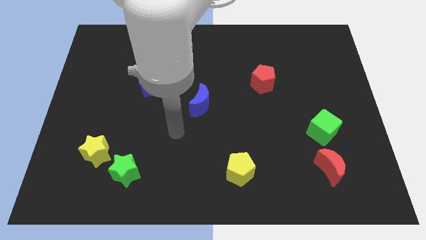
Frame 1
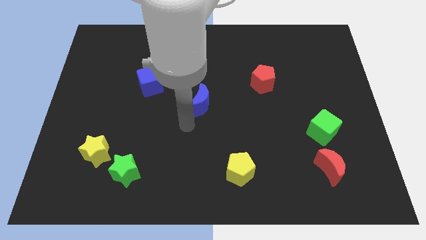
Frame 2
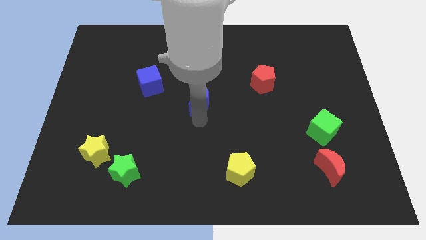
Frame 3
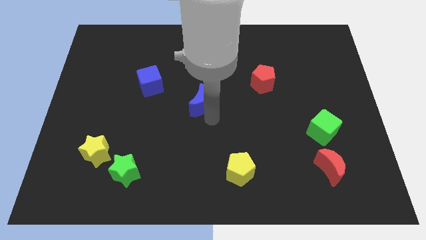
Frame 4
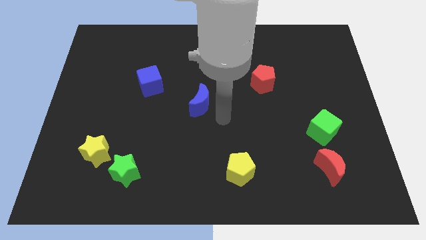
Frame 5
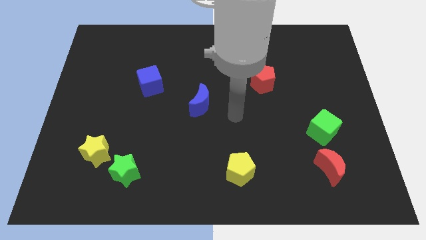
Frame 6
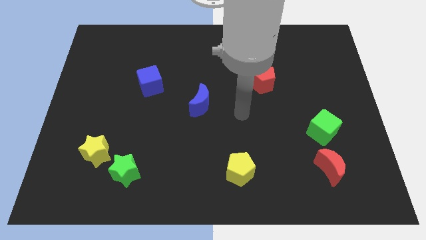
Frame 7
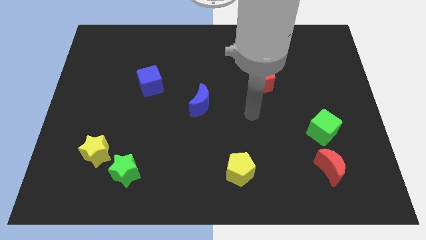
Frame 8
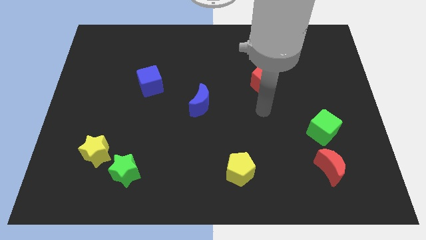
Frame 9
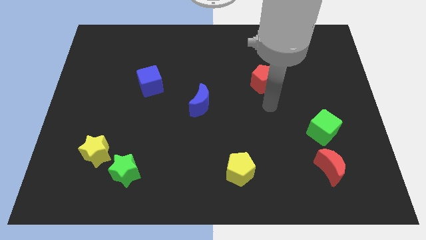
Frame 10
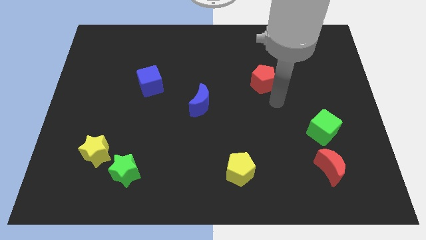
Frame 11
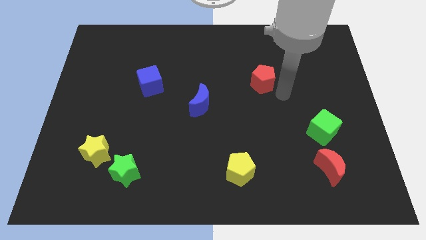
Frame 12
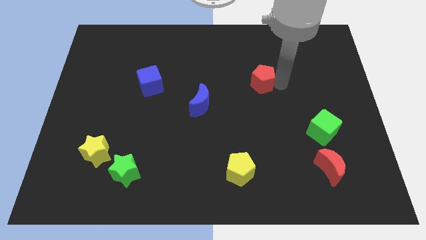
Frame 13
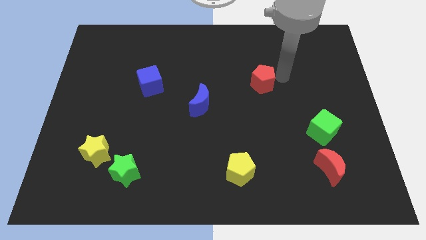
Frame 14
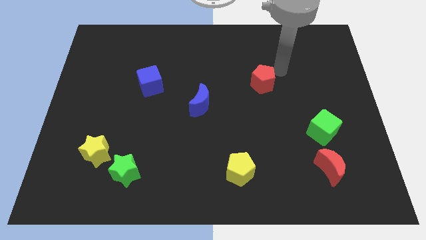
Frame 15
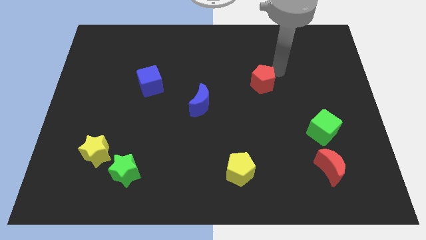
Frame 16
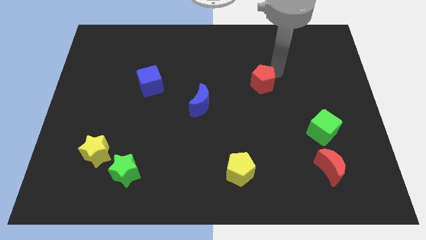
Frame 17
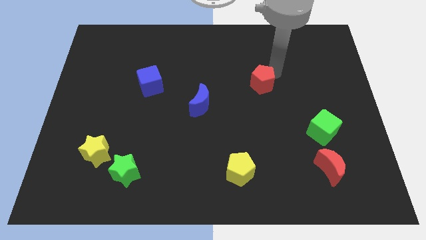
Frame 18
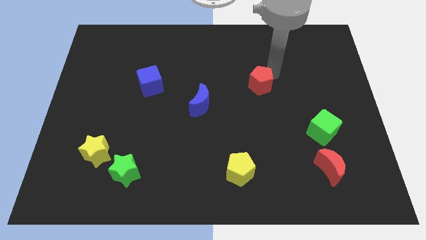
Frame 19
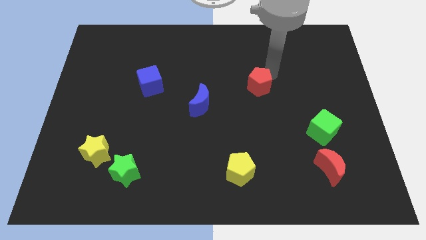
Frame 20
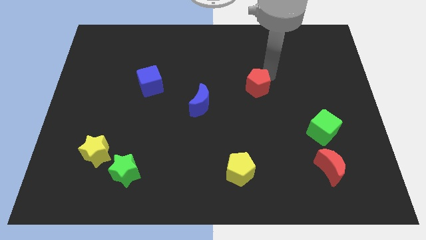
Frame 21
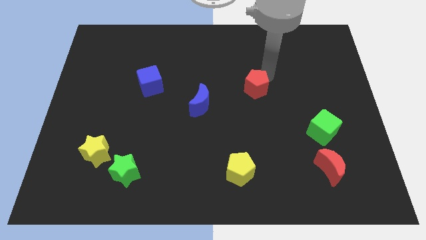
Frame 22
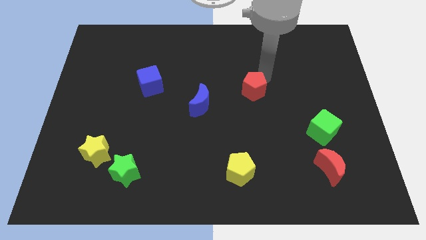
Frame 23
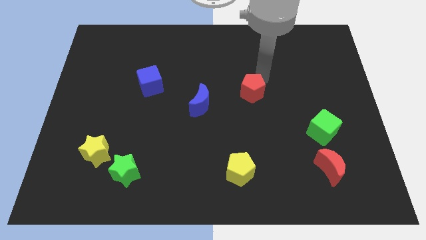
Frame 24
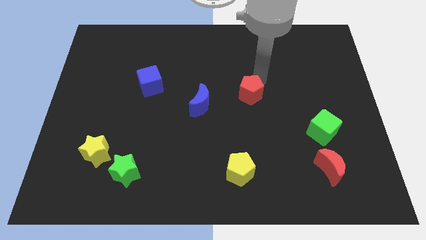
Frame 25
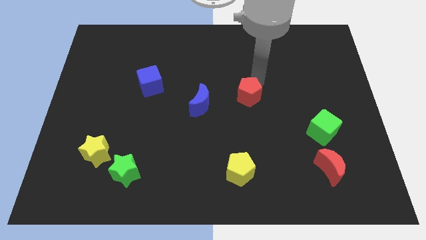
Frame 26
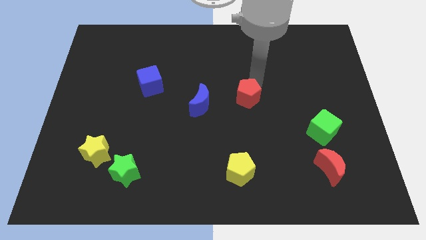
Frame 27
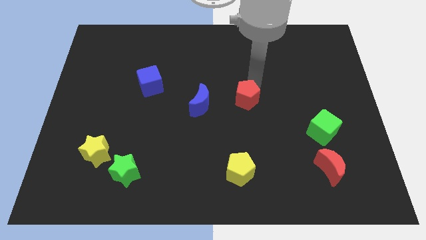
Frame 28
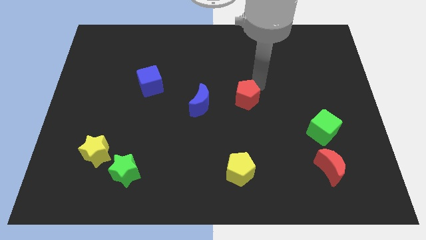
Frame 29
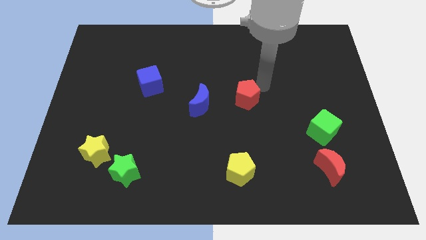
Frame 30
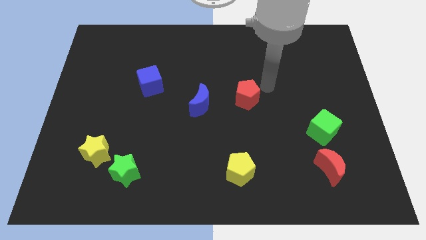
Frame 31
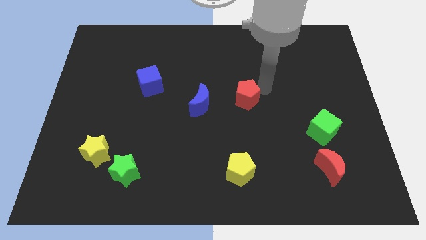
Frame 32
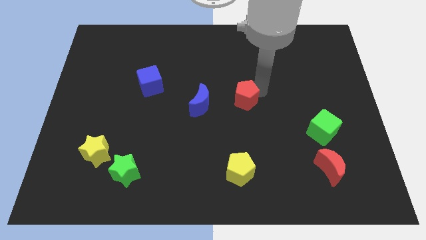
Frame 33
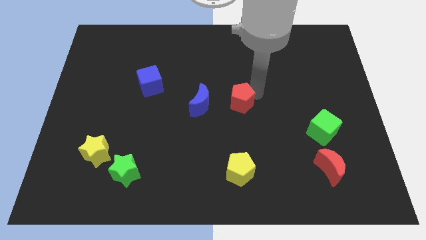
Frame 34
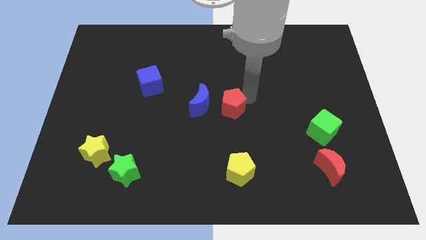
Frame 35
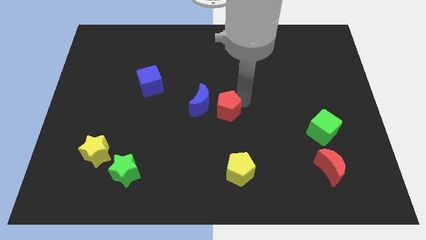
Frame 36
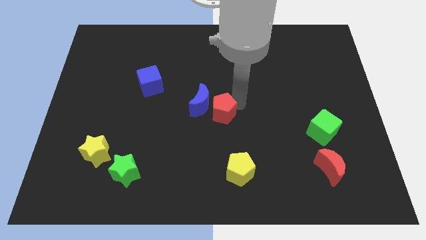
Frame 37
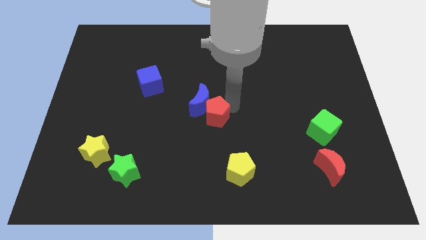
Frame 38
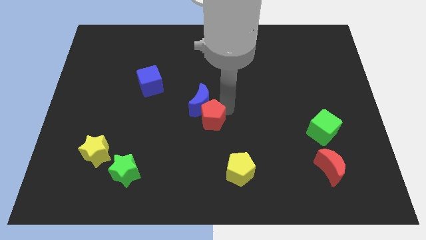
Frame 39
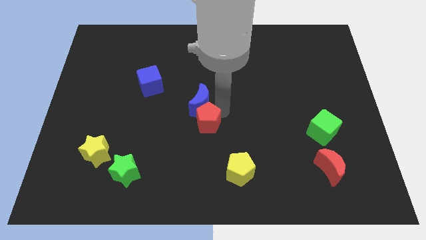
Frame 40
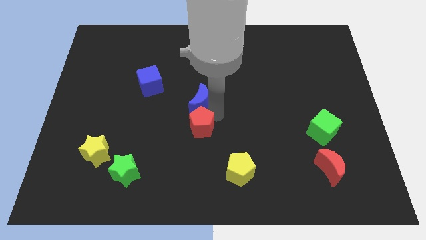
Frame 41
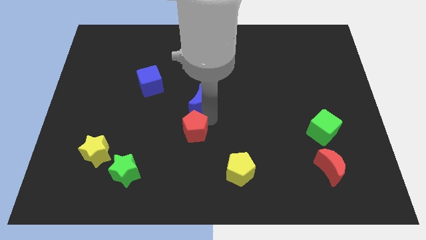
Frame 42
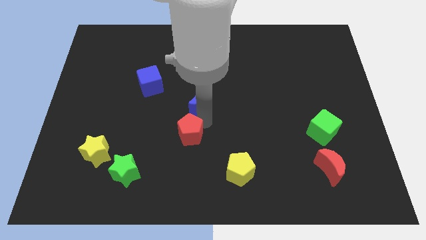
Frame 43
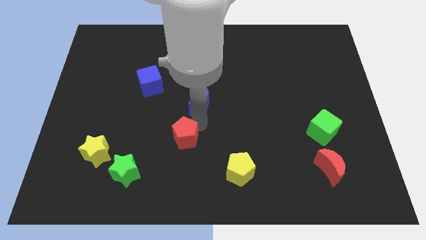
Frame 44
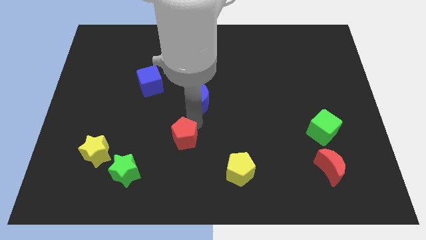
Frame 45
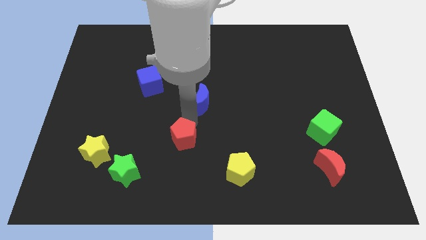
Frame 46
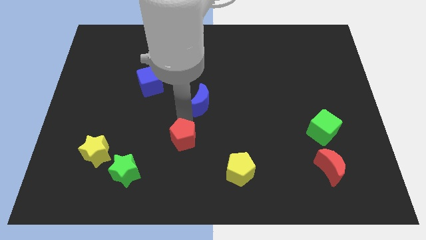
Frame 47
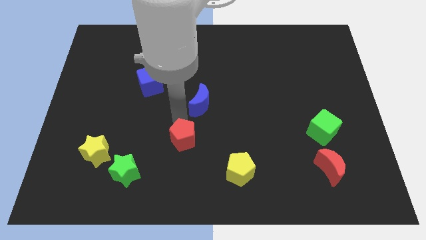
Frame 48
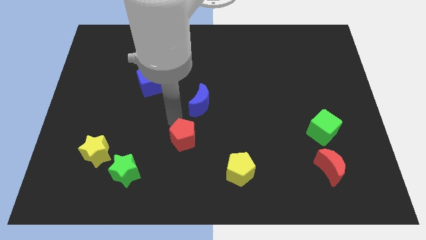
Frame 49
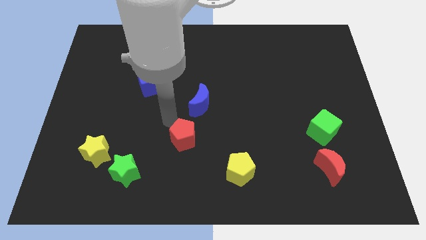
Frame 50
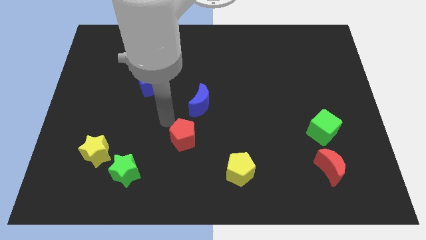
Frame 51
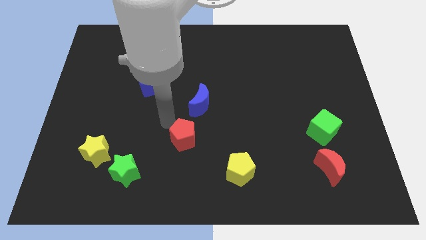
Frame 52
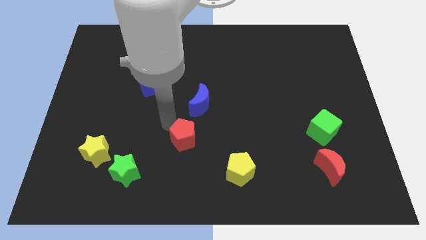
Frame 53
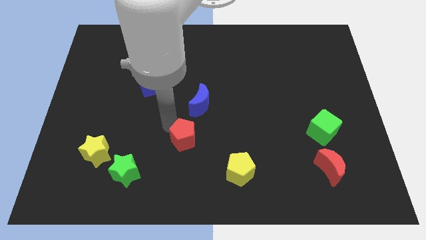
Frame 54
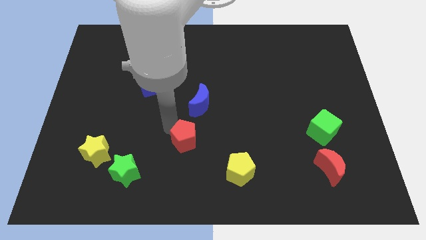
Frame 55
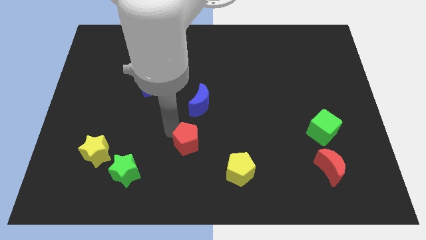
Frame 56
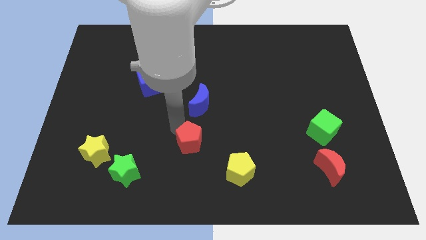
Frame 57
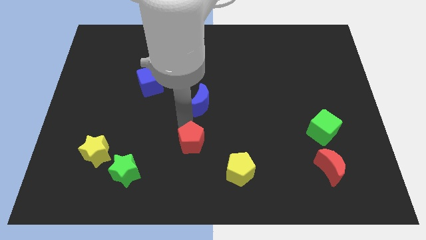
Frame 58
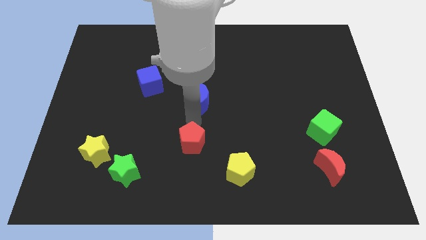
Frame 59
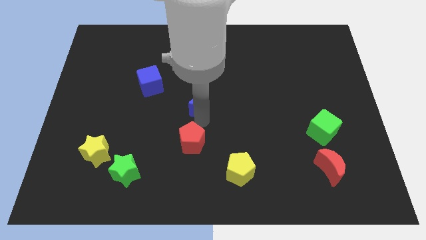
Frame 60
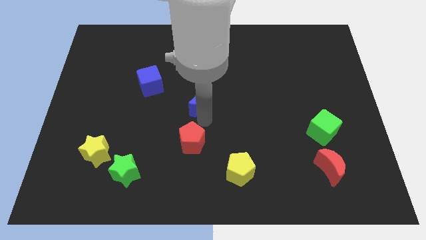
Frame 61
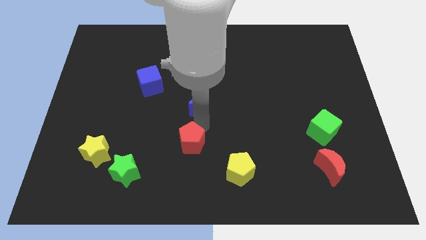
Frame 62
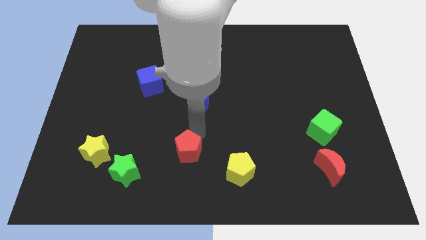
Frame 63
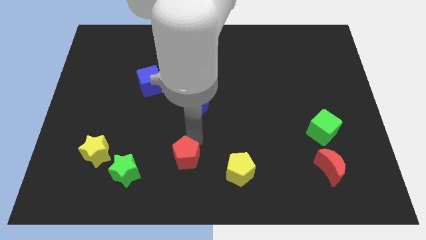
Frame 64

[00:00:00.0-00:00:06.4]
move the red pentagon to the right side of the green star
